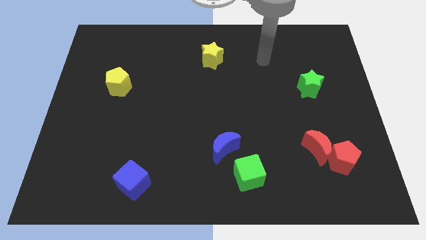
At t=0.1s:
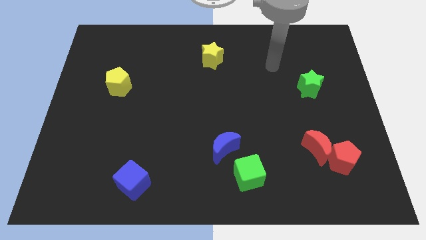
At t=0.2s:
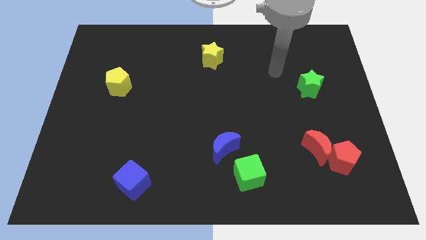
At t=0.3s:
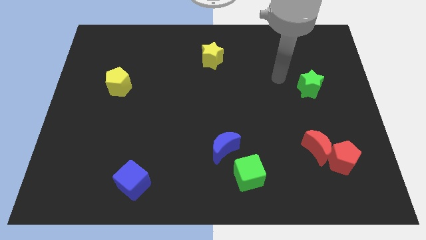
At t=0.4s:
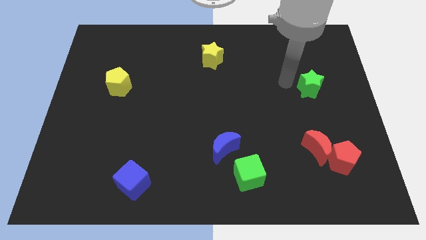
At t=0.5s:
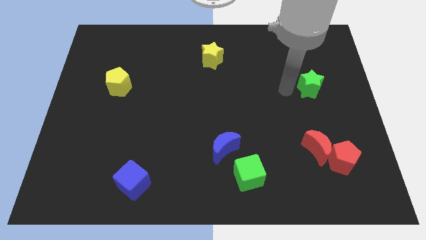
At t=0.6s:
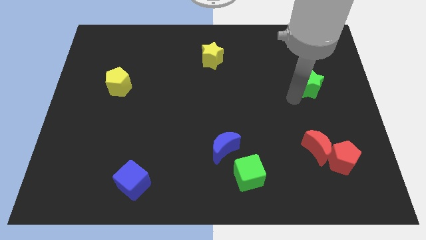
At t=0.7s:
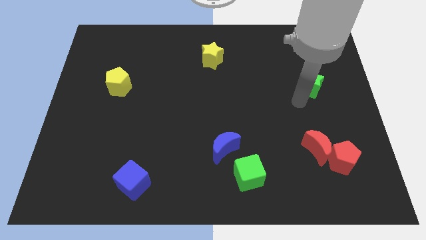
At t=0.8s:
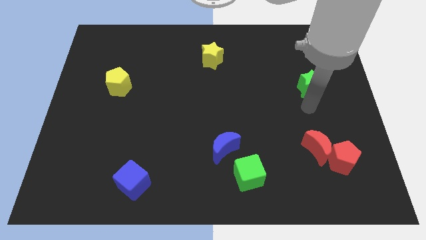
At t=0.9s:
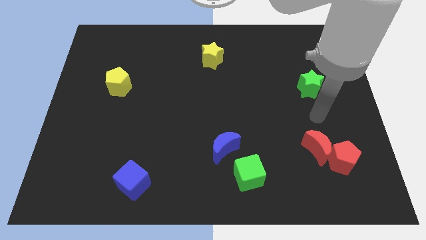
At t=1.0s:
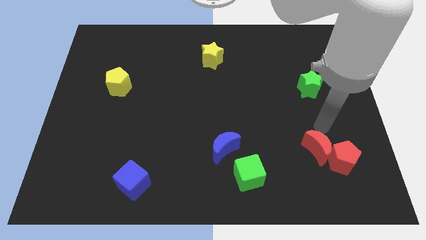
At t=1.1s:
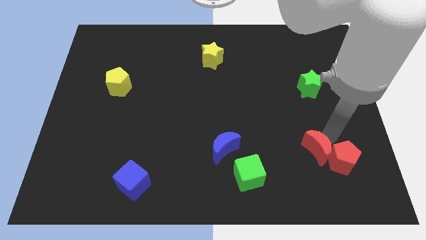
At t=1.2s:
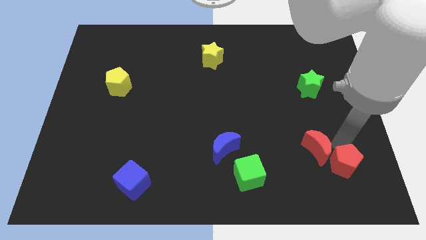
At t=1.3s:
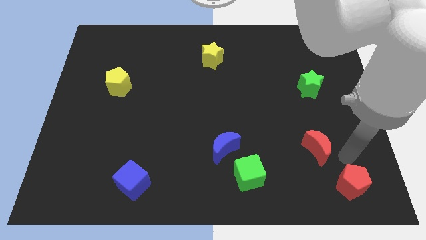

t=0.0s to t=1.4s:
pull the red moon apart from the red pentagon

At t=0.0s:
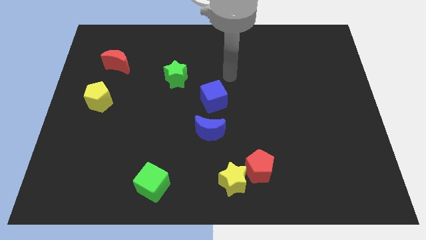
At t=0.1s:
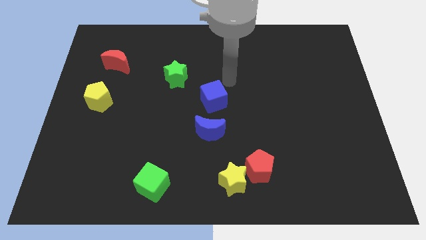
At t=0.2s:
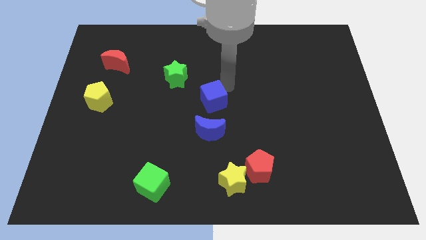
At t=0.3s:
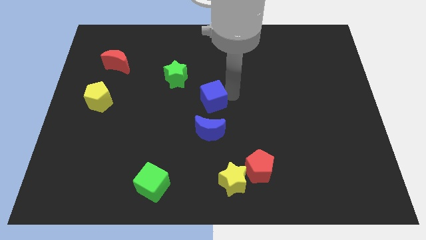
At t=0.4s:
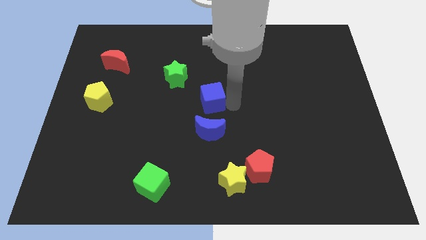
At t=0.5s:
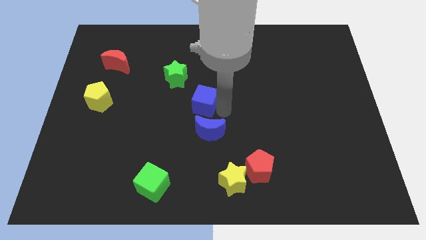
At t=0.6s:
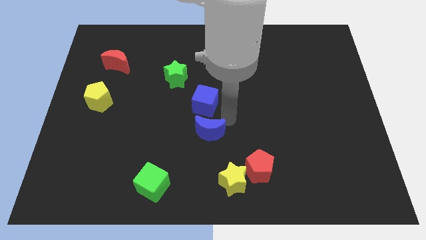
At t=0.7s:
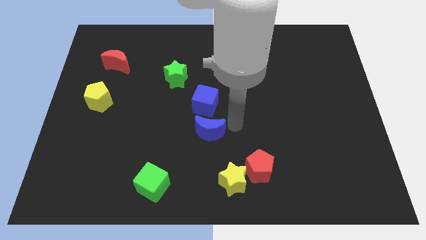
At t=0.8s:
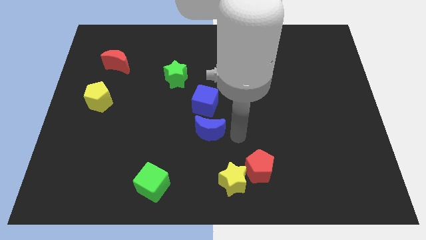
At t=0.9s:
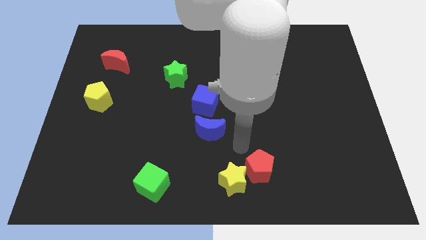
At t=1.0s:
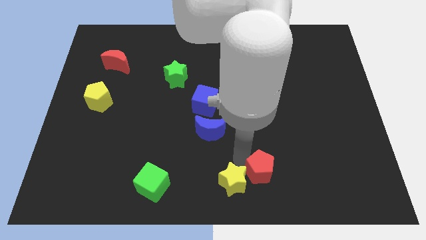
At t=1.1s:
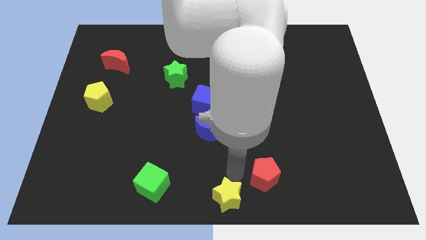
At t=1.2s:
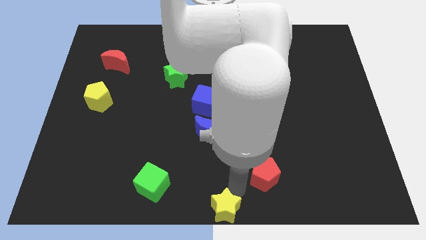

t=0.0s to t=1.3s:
separate the red pentagon from the yellow star

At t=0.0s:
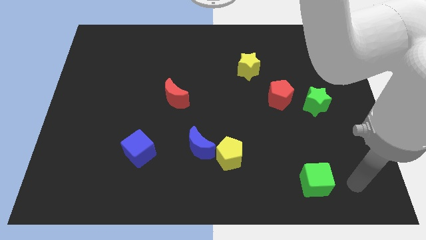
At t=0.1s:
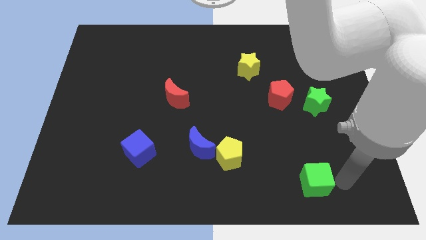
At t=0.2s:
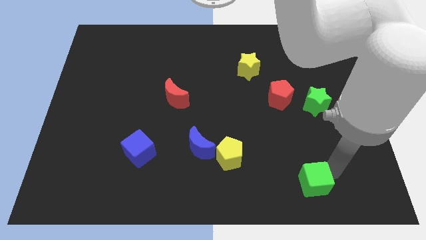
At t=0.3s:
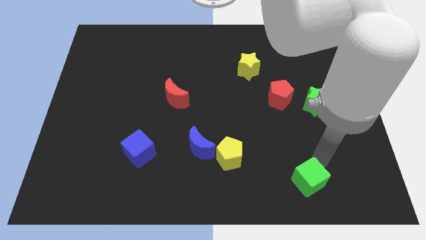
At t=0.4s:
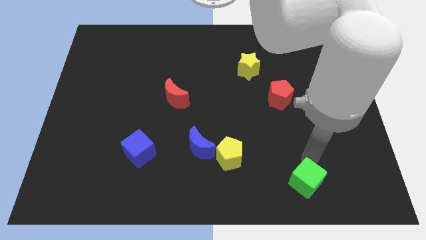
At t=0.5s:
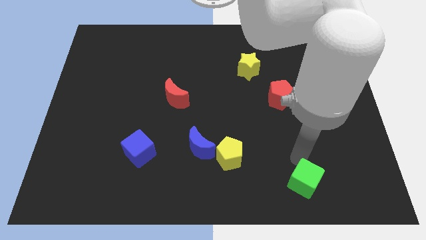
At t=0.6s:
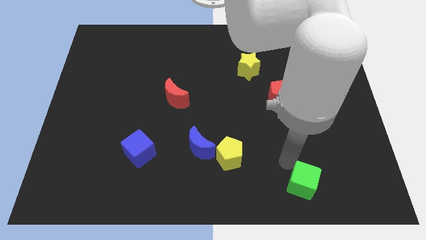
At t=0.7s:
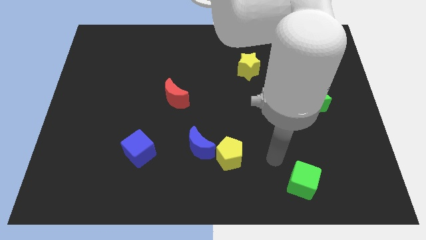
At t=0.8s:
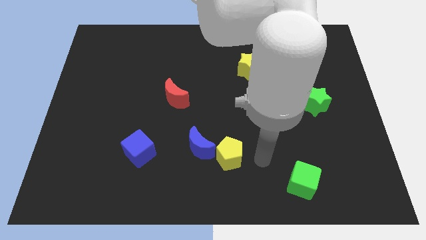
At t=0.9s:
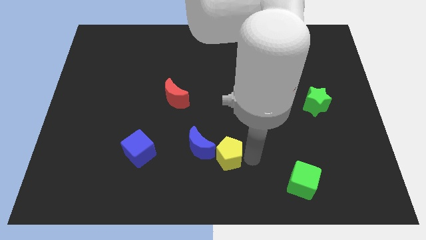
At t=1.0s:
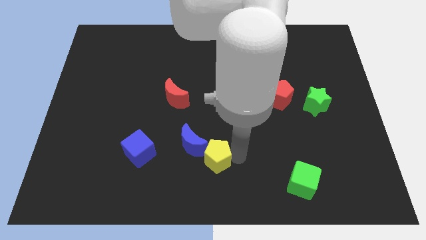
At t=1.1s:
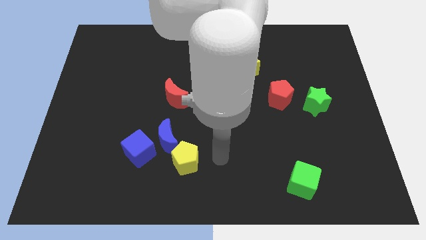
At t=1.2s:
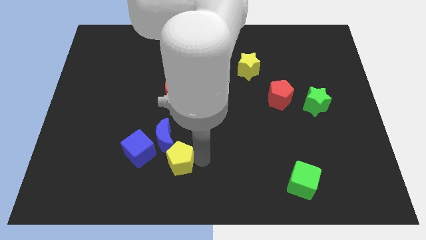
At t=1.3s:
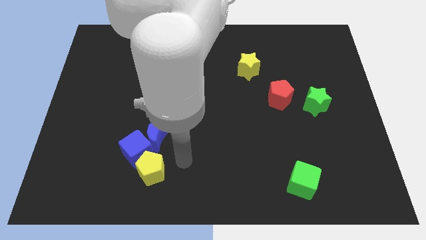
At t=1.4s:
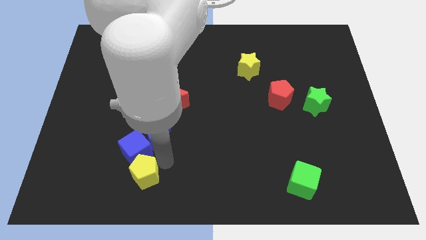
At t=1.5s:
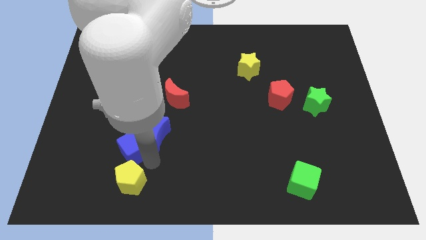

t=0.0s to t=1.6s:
move the blue moon away from the yellow pentagon

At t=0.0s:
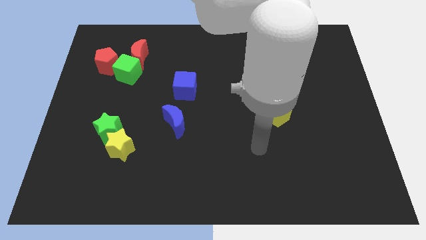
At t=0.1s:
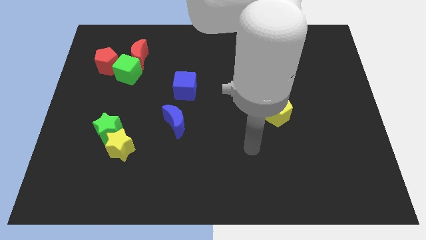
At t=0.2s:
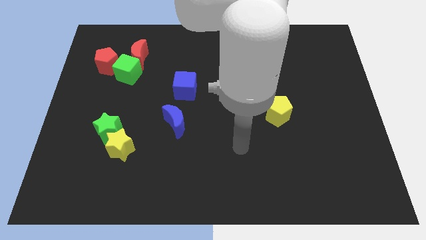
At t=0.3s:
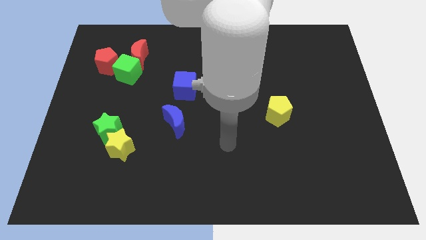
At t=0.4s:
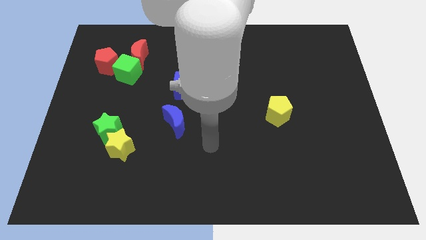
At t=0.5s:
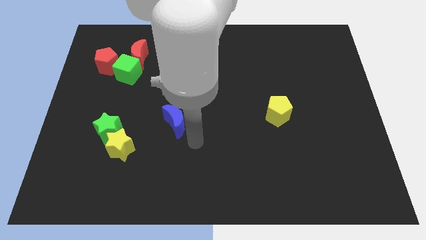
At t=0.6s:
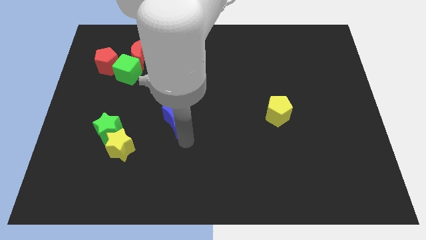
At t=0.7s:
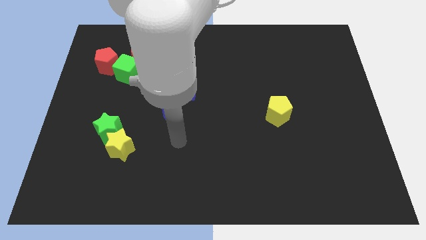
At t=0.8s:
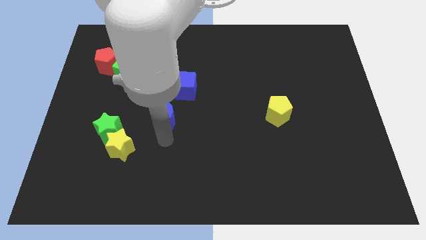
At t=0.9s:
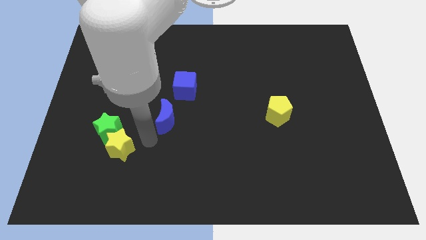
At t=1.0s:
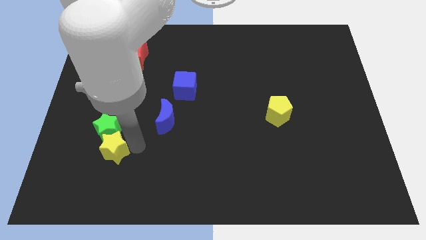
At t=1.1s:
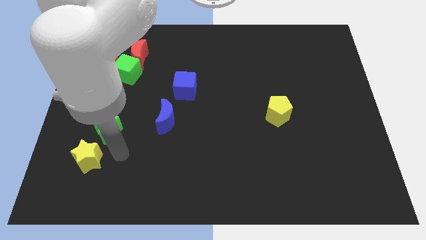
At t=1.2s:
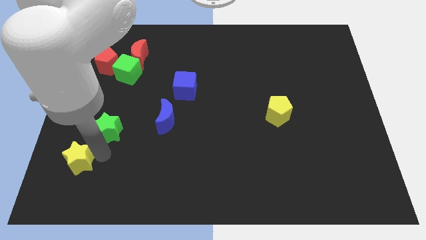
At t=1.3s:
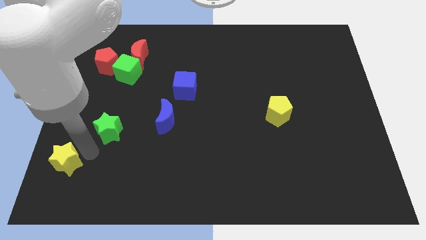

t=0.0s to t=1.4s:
pull the green star apart from the yellow star

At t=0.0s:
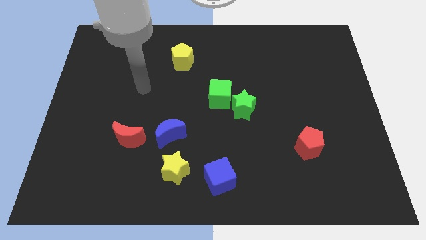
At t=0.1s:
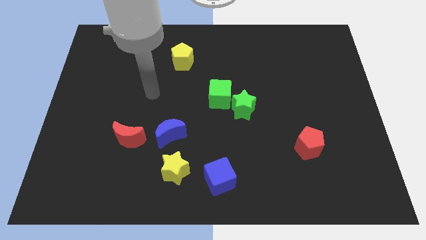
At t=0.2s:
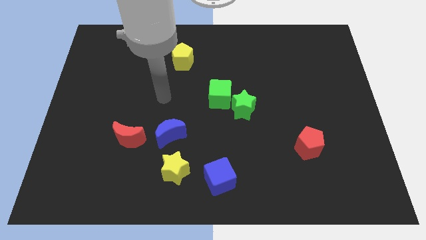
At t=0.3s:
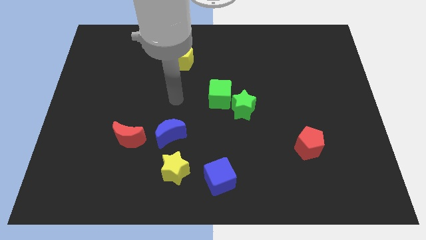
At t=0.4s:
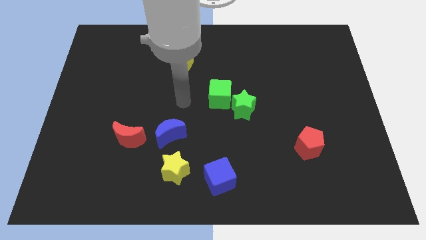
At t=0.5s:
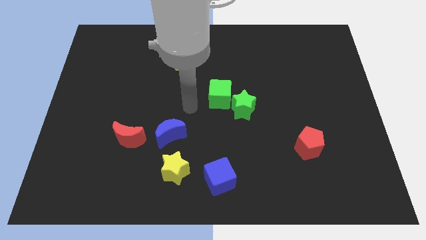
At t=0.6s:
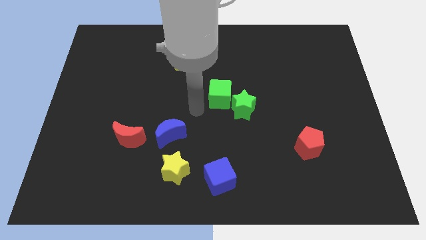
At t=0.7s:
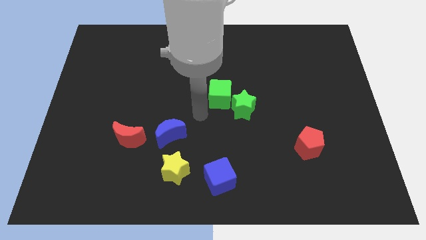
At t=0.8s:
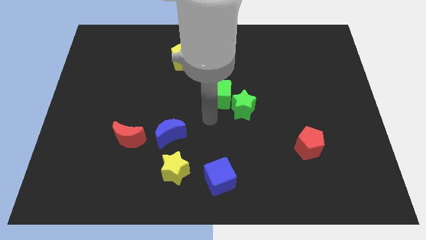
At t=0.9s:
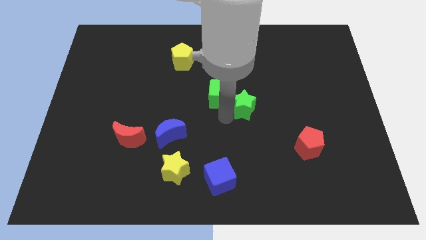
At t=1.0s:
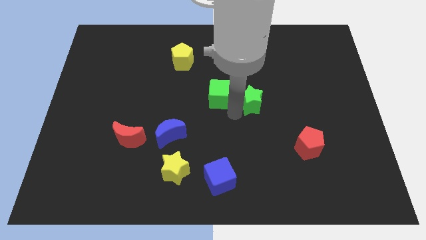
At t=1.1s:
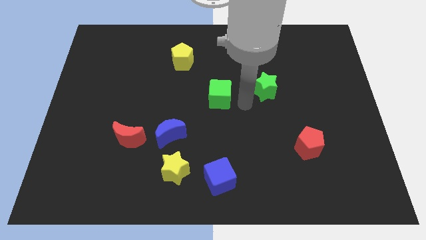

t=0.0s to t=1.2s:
separate the green cube from the green star

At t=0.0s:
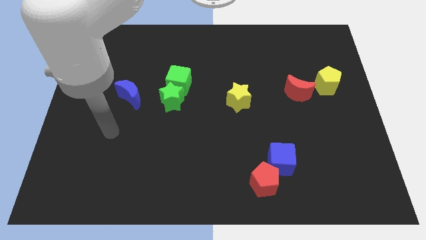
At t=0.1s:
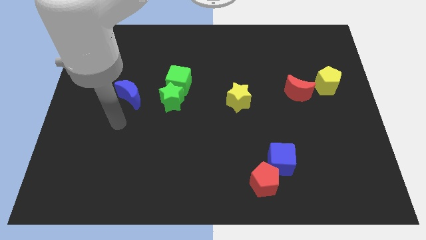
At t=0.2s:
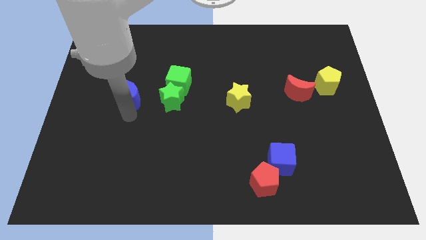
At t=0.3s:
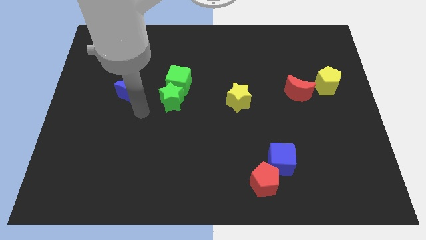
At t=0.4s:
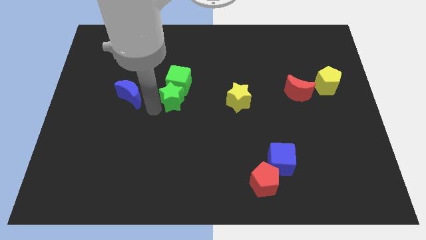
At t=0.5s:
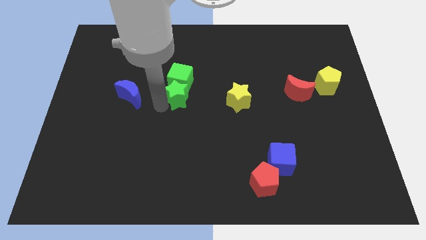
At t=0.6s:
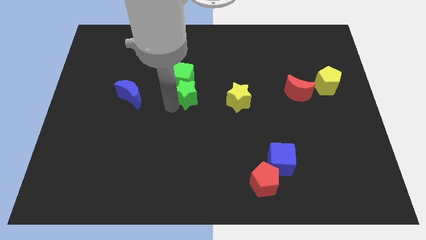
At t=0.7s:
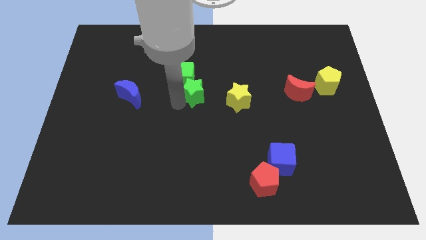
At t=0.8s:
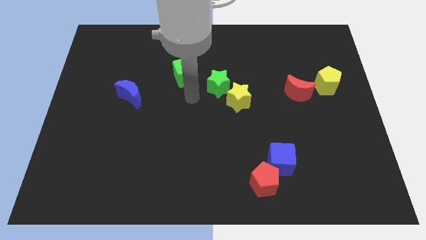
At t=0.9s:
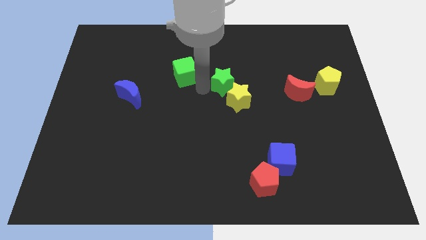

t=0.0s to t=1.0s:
move the green cube away from the green star

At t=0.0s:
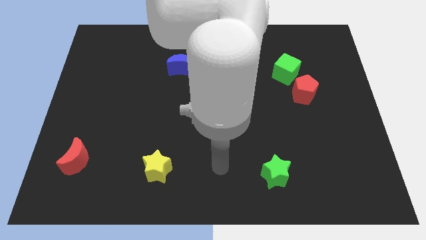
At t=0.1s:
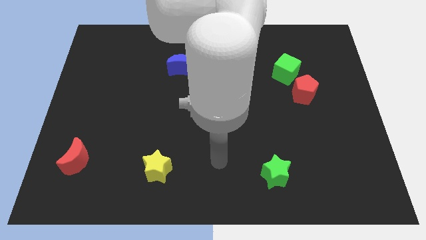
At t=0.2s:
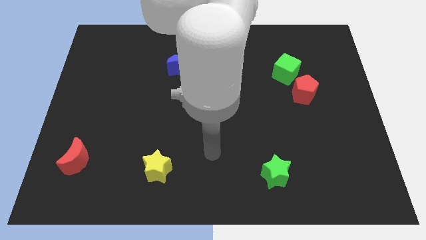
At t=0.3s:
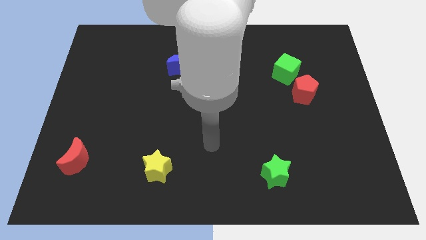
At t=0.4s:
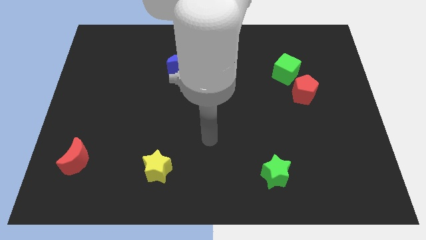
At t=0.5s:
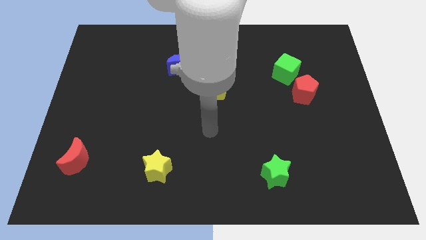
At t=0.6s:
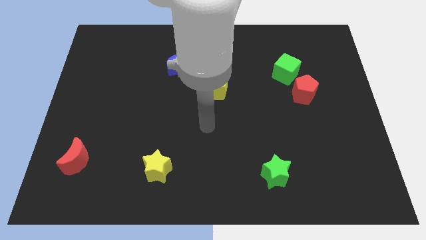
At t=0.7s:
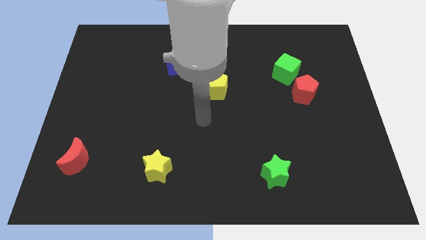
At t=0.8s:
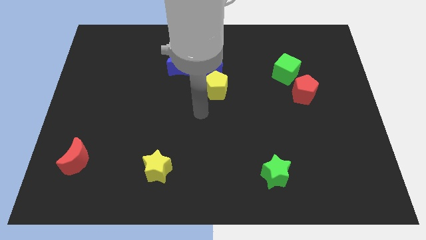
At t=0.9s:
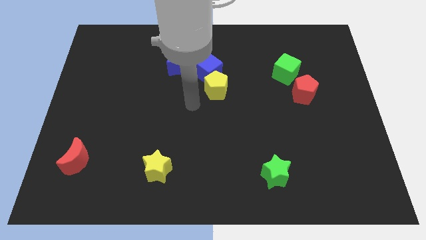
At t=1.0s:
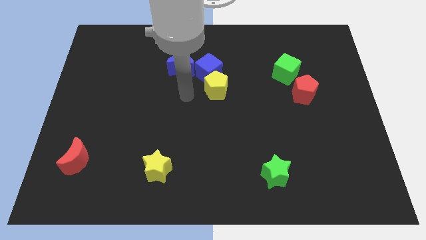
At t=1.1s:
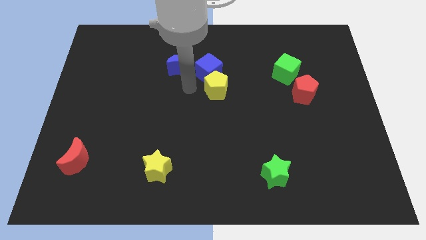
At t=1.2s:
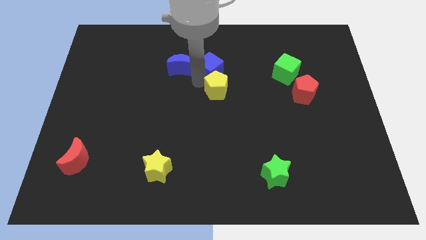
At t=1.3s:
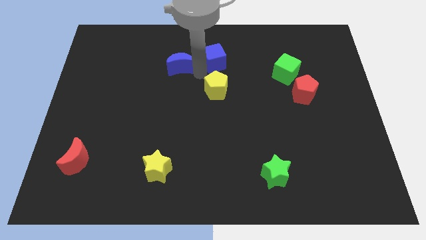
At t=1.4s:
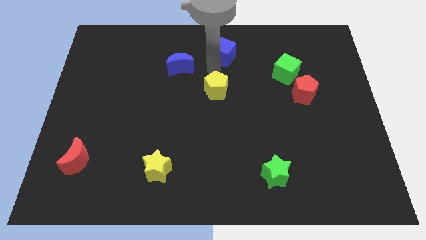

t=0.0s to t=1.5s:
pull the yellow pentagon apart from the blue cube
